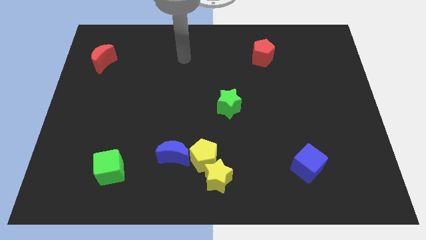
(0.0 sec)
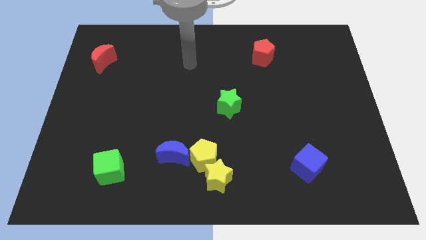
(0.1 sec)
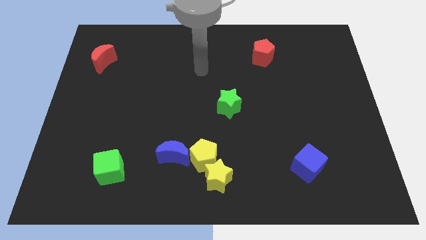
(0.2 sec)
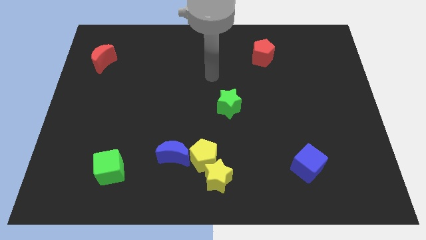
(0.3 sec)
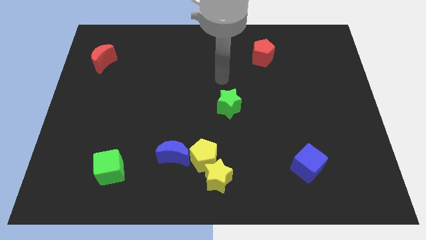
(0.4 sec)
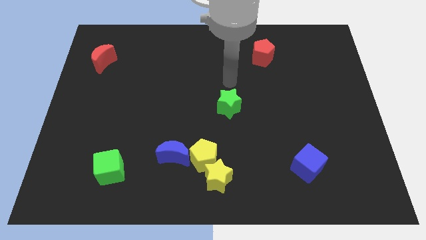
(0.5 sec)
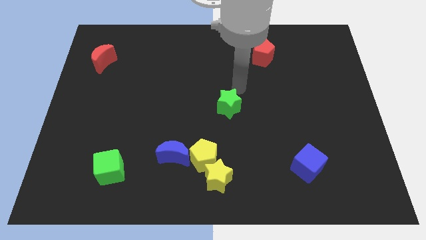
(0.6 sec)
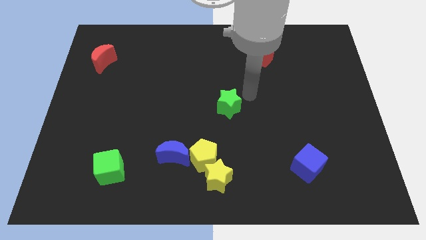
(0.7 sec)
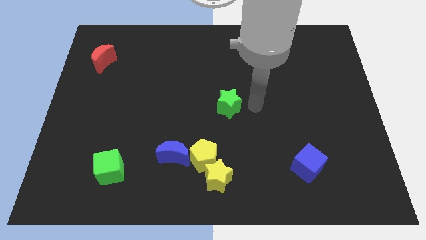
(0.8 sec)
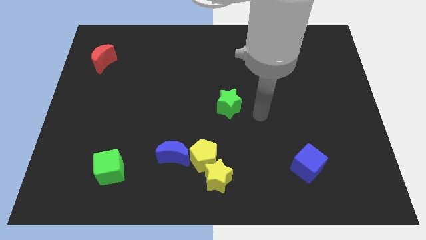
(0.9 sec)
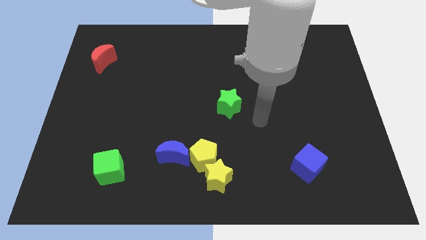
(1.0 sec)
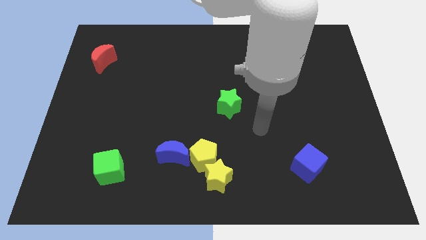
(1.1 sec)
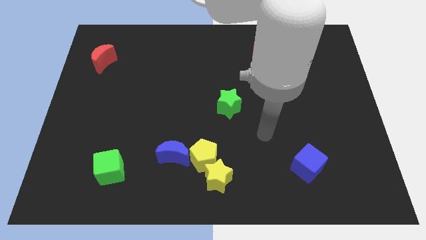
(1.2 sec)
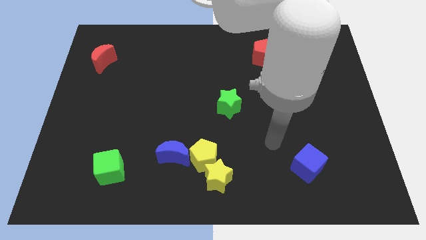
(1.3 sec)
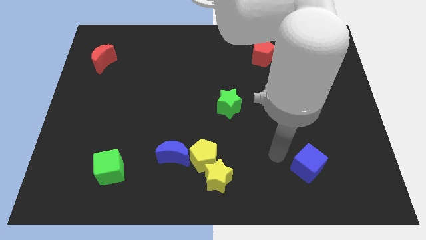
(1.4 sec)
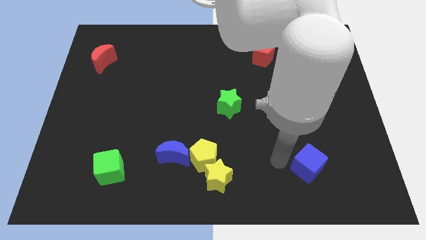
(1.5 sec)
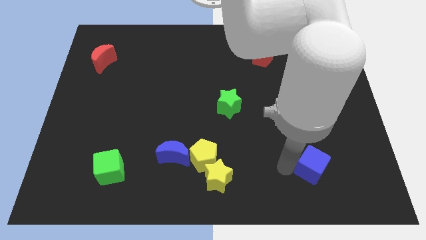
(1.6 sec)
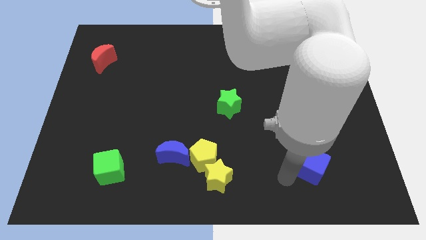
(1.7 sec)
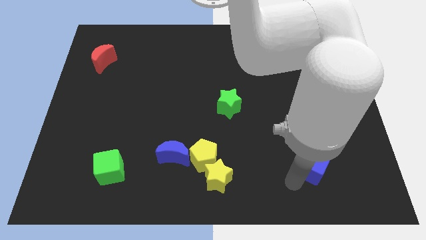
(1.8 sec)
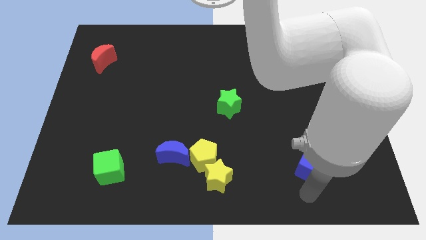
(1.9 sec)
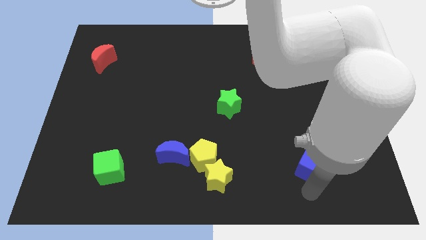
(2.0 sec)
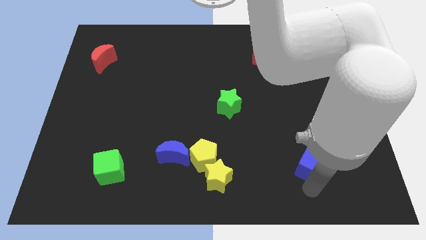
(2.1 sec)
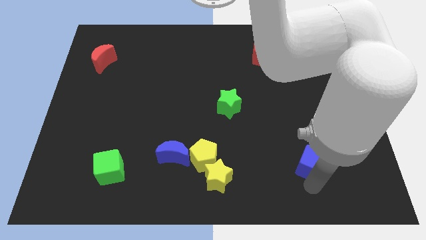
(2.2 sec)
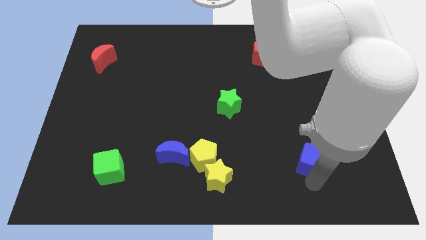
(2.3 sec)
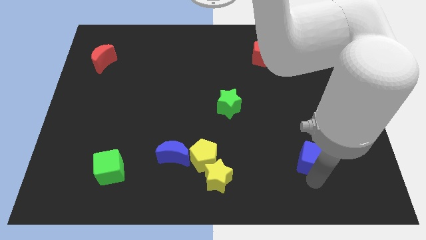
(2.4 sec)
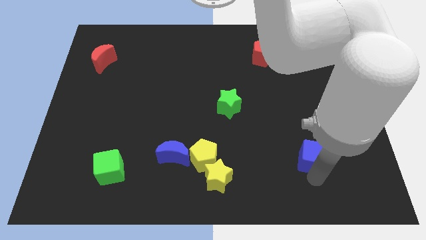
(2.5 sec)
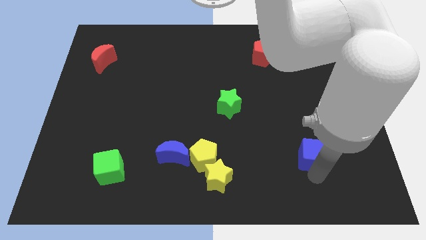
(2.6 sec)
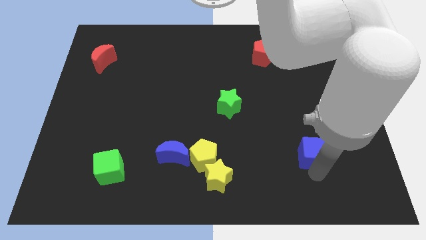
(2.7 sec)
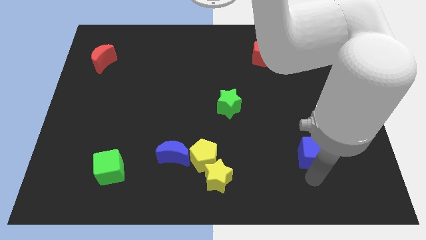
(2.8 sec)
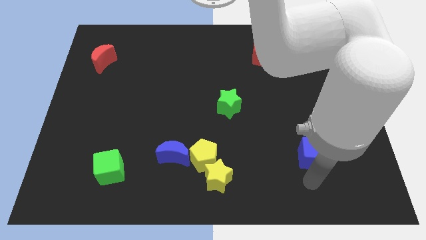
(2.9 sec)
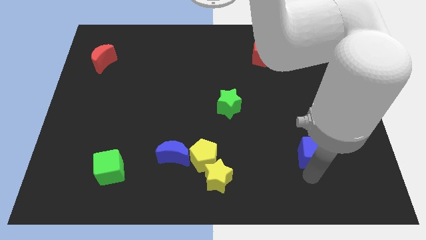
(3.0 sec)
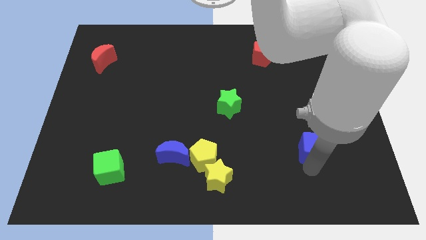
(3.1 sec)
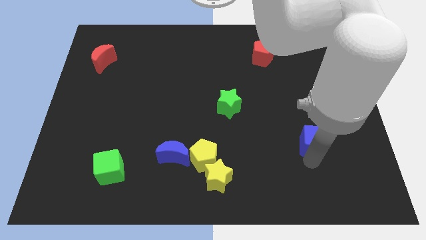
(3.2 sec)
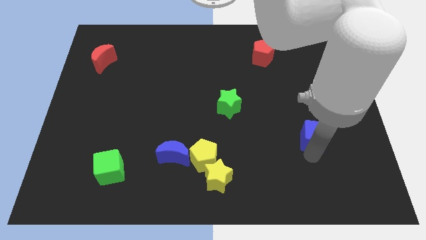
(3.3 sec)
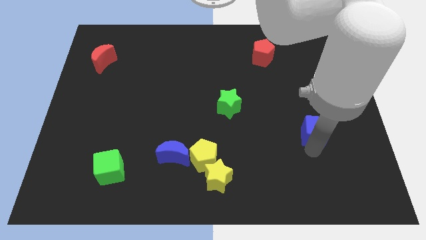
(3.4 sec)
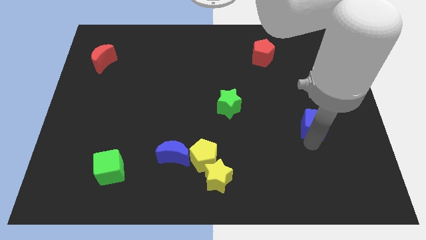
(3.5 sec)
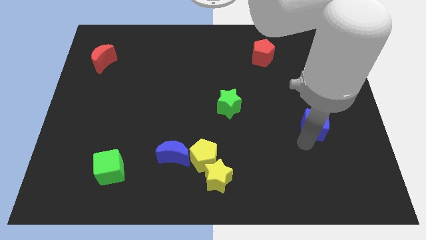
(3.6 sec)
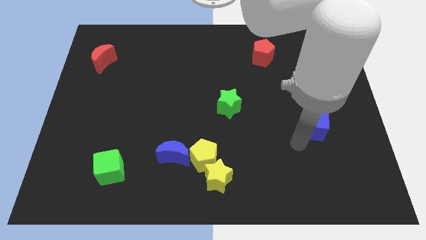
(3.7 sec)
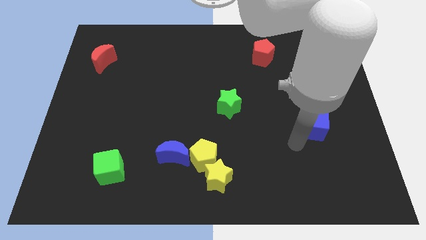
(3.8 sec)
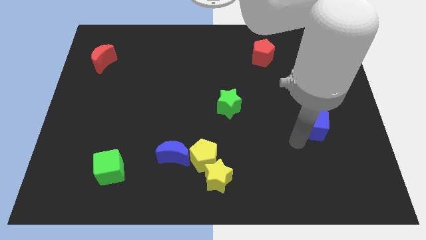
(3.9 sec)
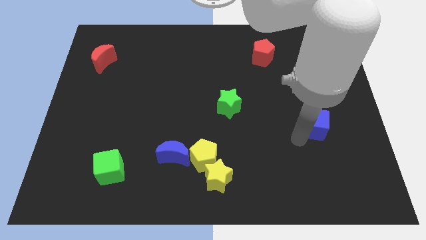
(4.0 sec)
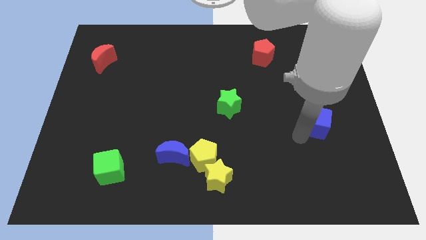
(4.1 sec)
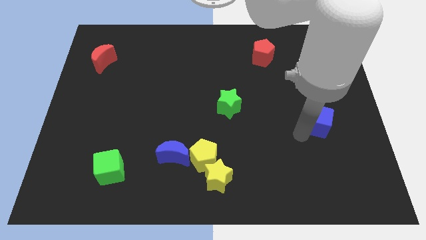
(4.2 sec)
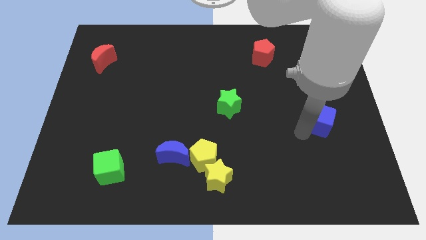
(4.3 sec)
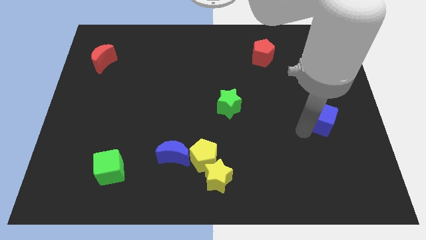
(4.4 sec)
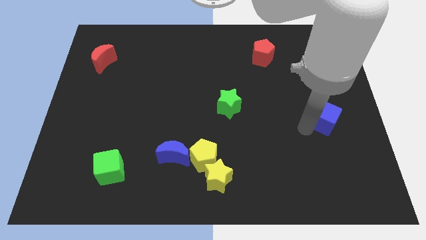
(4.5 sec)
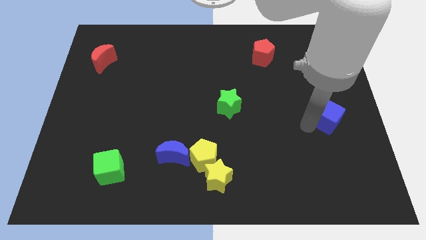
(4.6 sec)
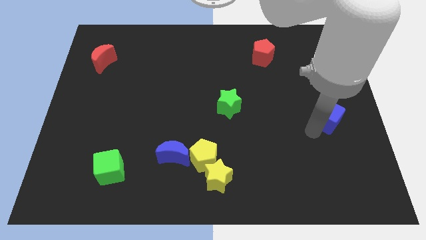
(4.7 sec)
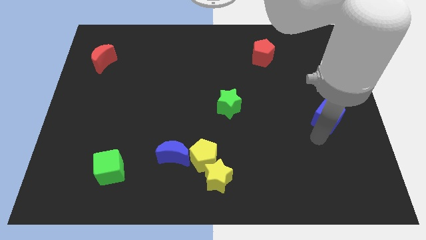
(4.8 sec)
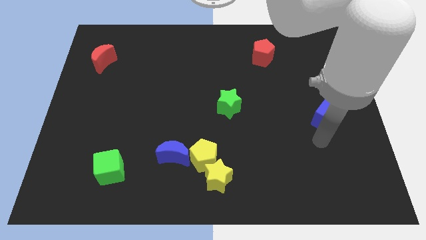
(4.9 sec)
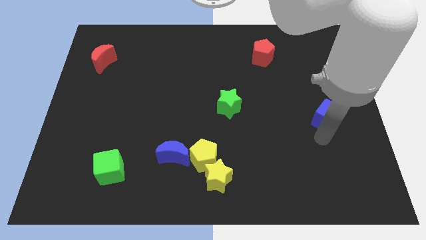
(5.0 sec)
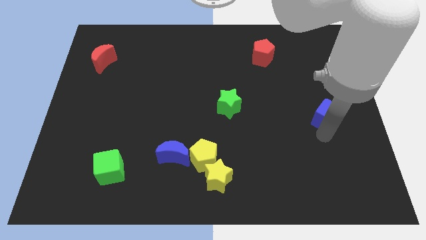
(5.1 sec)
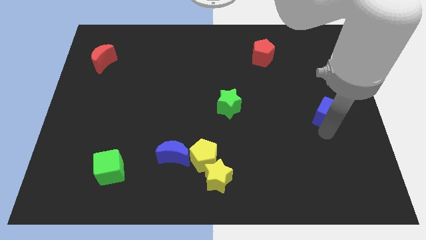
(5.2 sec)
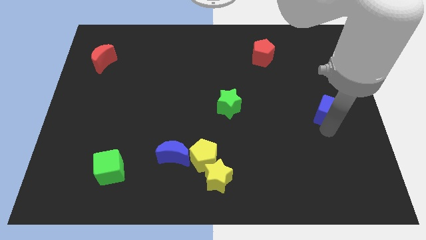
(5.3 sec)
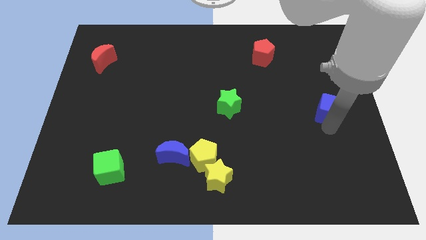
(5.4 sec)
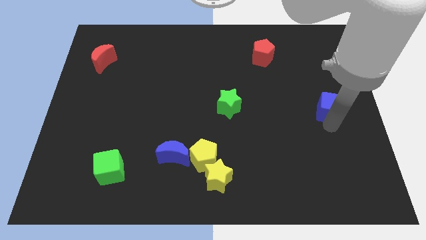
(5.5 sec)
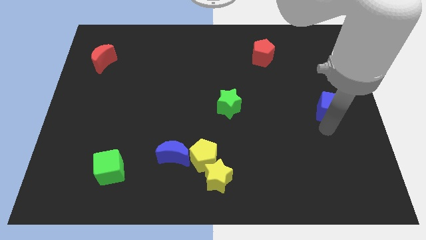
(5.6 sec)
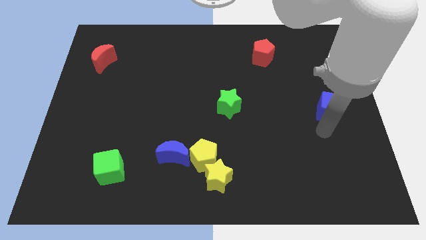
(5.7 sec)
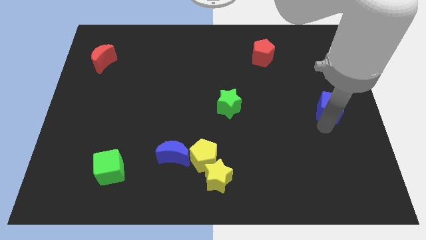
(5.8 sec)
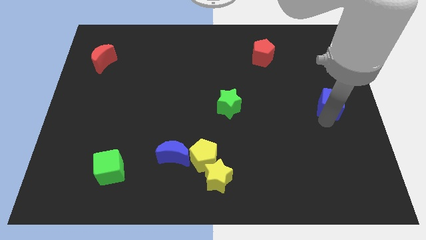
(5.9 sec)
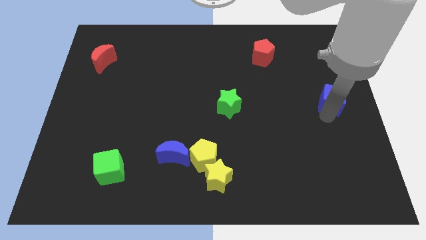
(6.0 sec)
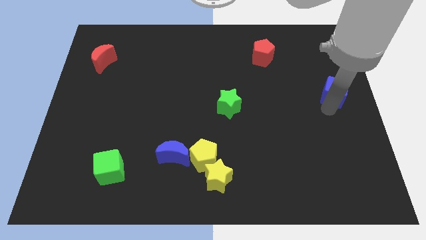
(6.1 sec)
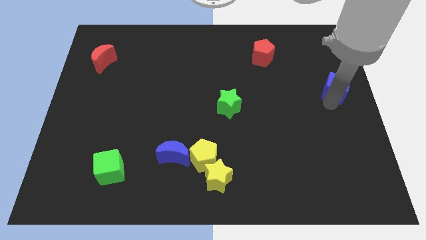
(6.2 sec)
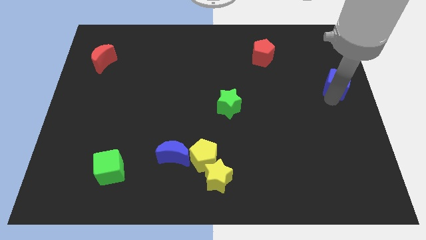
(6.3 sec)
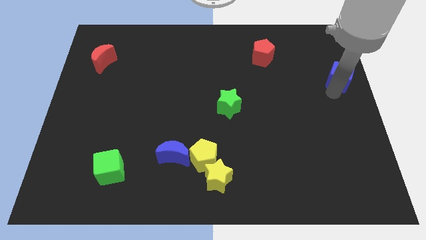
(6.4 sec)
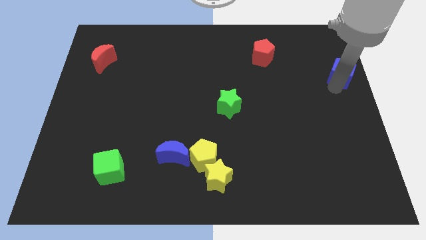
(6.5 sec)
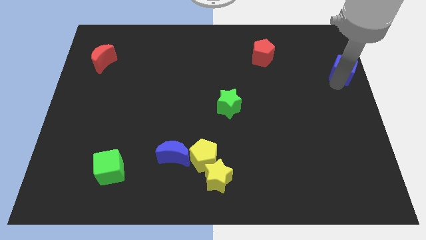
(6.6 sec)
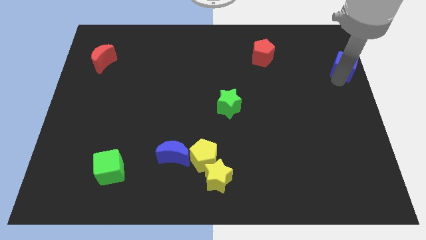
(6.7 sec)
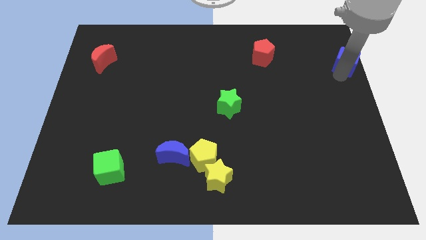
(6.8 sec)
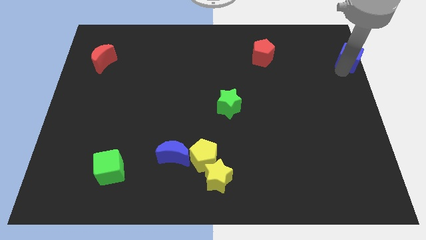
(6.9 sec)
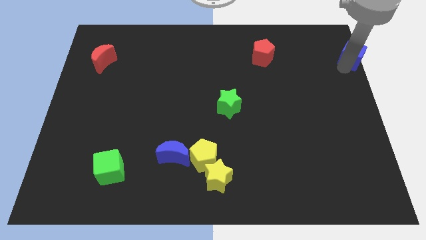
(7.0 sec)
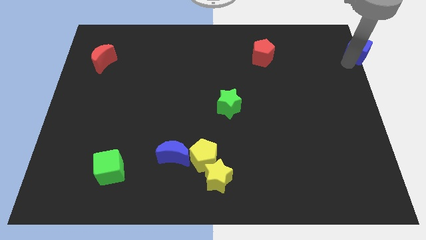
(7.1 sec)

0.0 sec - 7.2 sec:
slide the blue cube to the top right of the board
